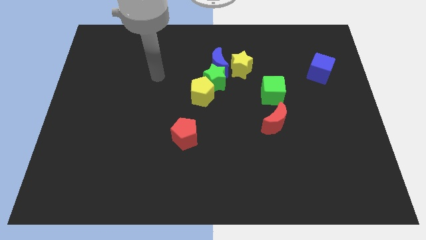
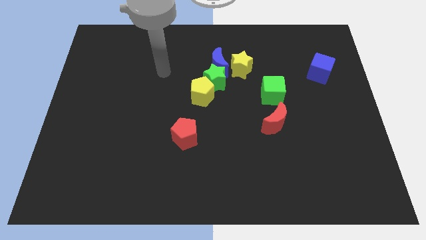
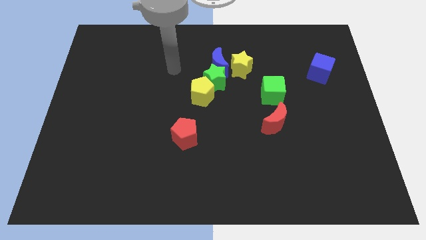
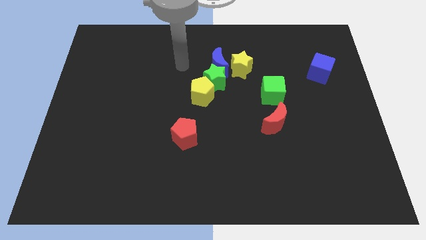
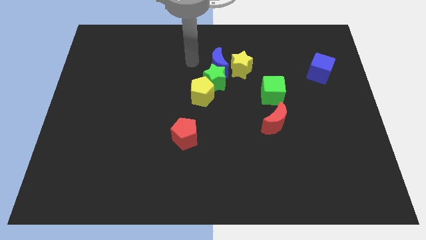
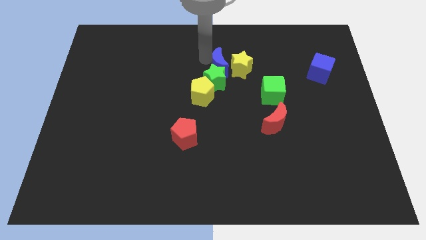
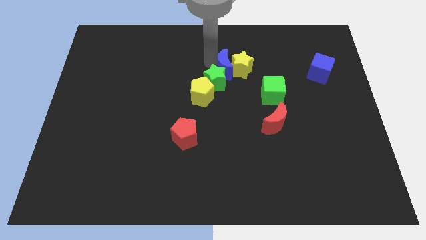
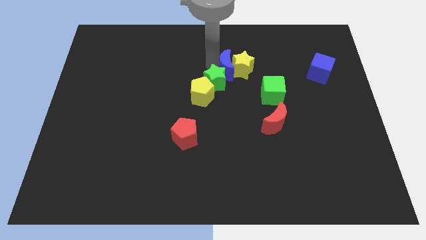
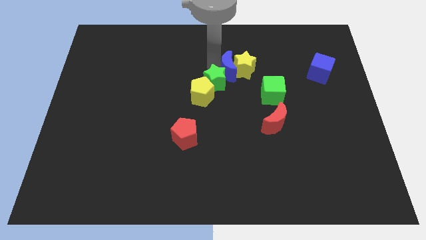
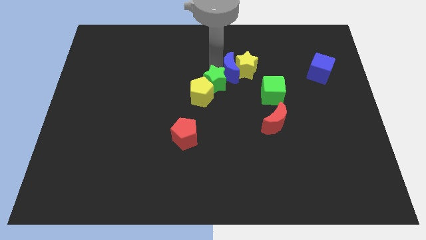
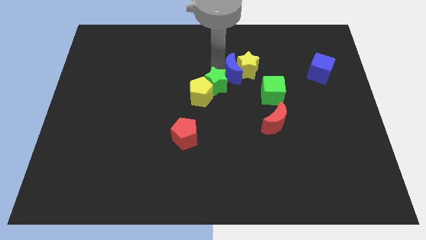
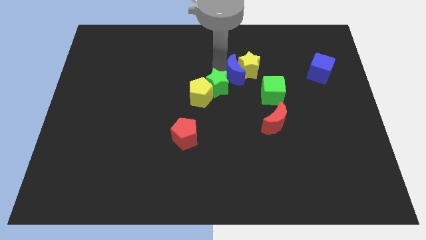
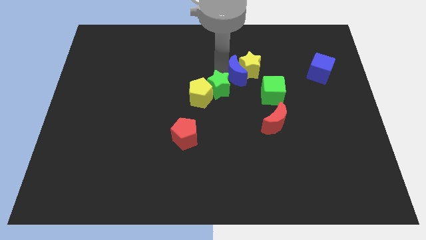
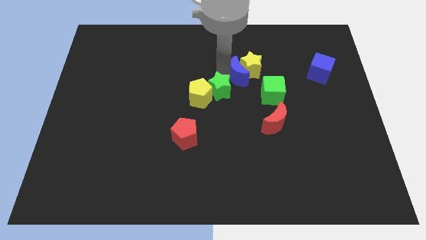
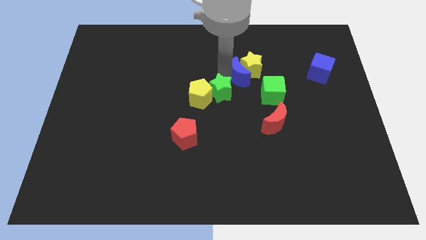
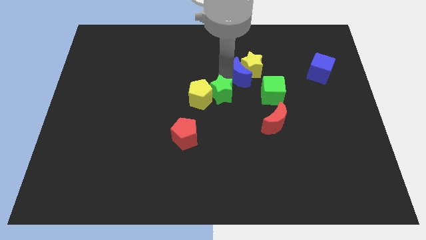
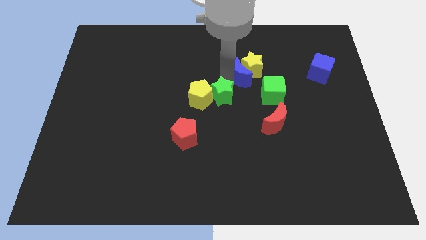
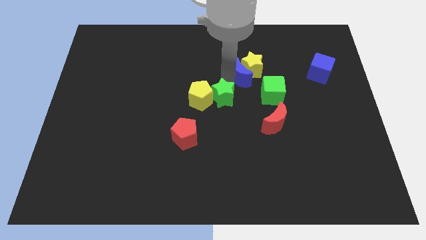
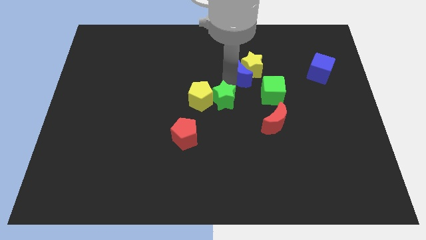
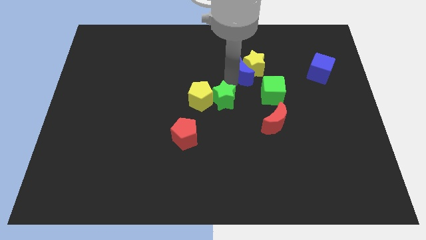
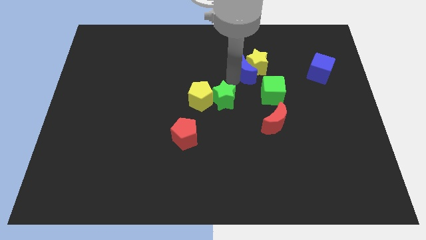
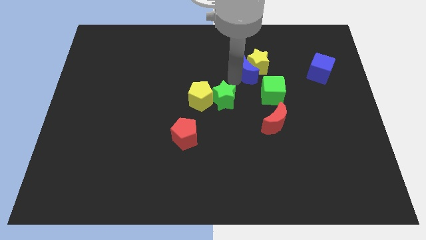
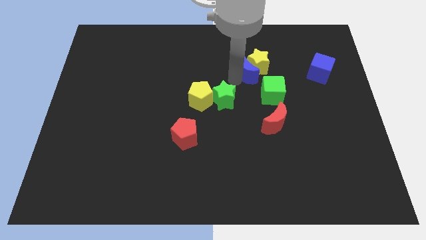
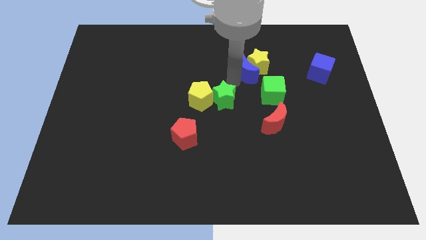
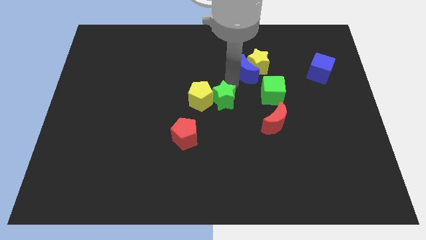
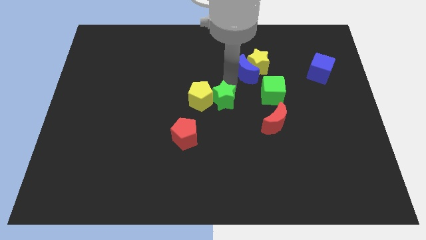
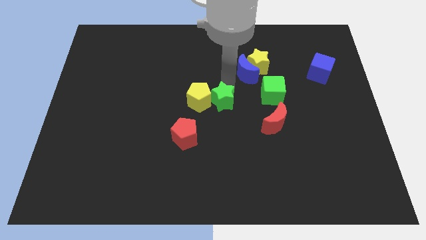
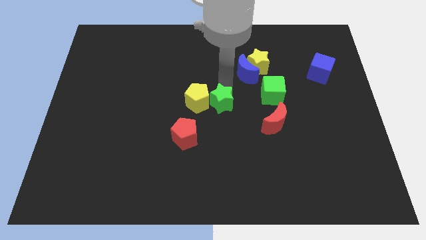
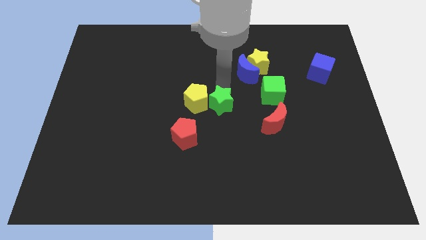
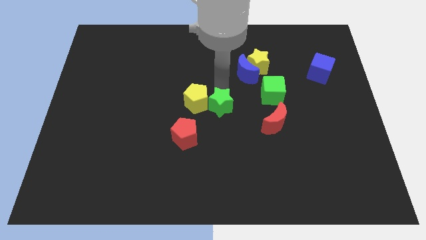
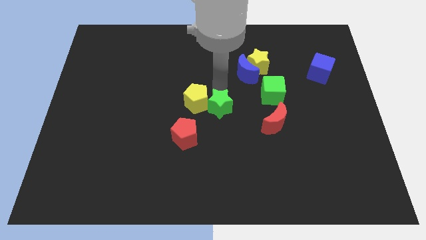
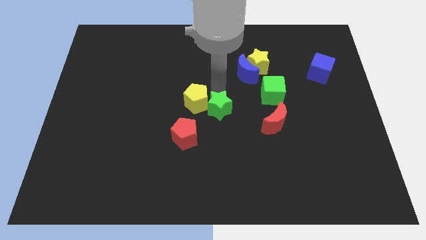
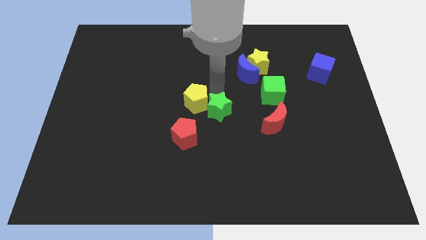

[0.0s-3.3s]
pull the green star apart from the blue moon, yellow pentagon, and yellow star

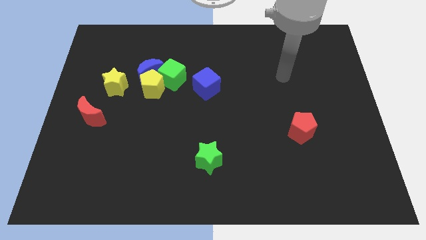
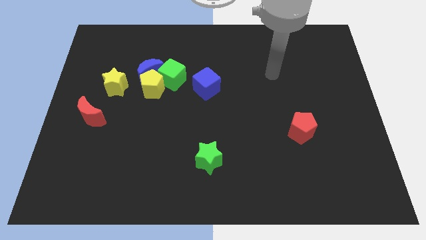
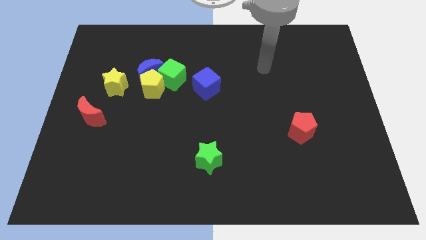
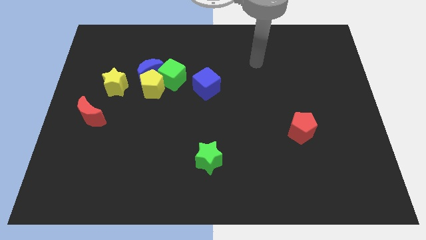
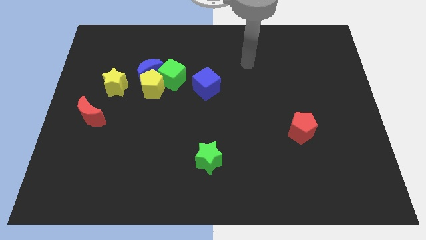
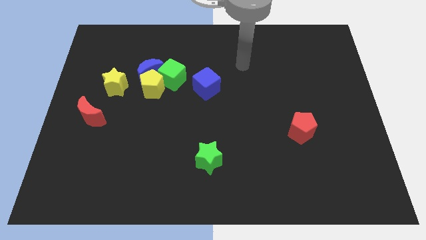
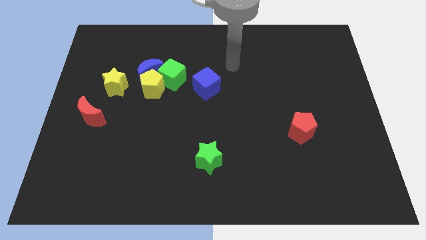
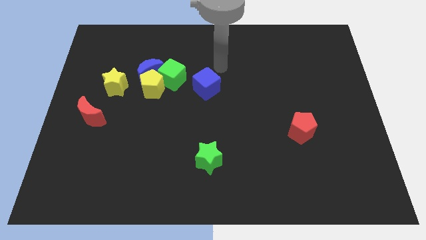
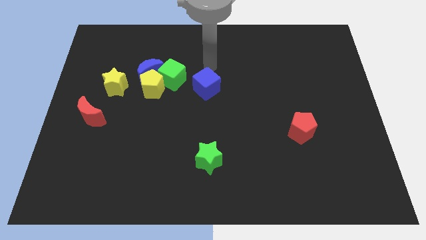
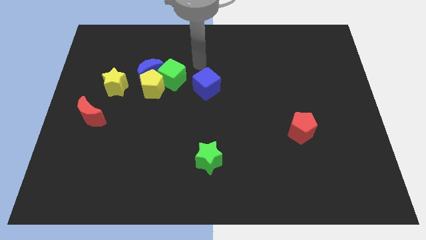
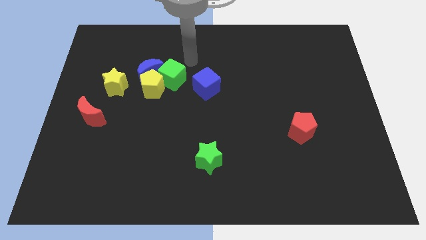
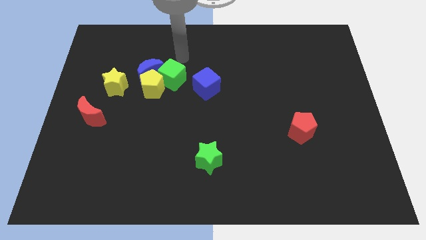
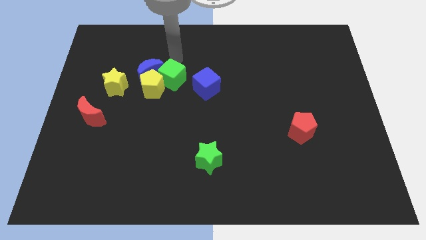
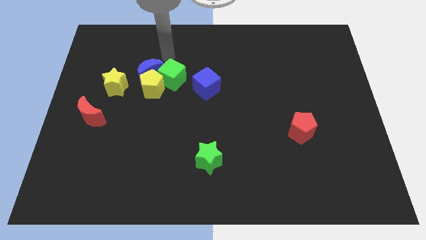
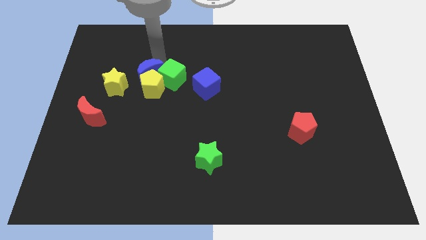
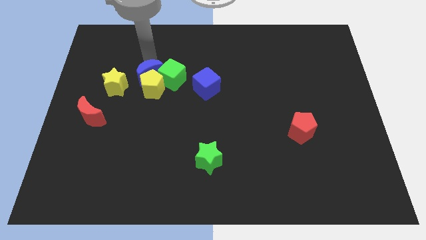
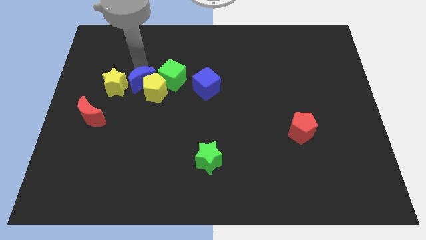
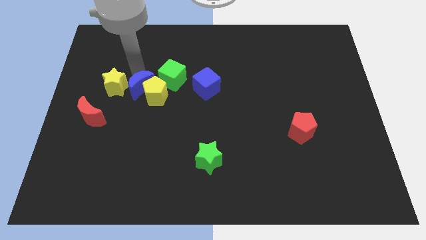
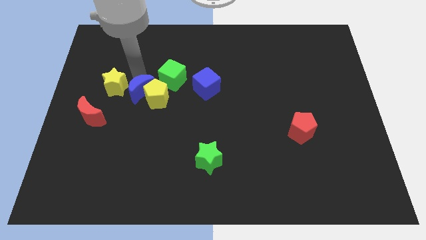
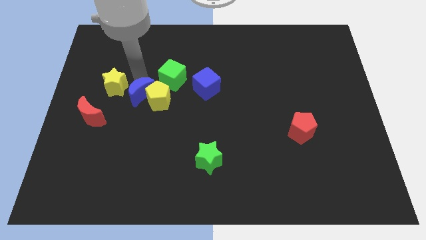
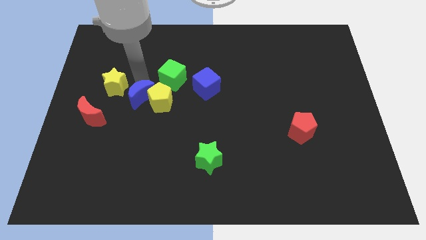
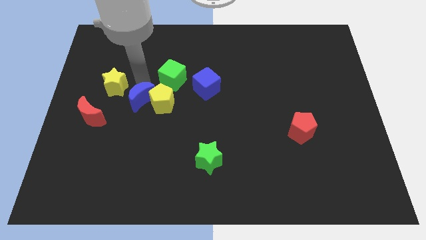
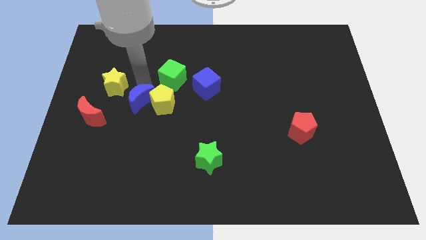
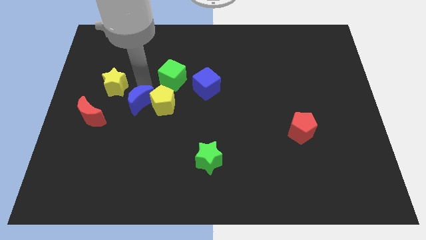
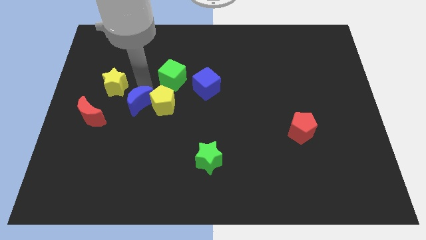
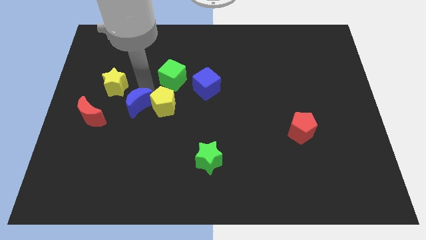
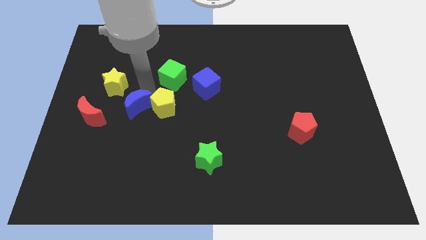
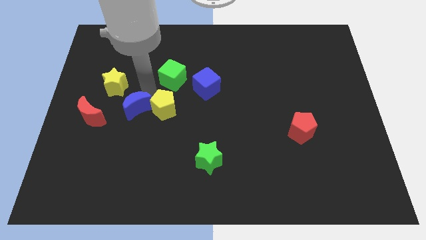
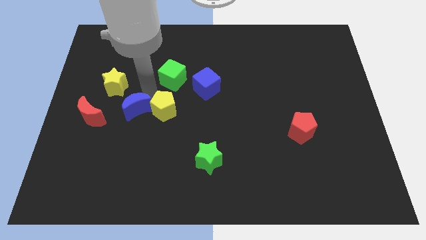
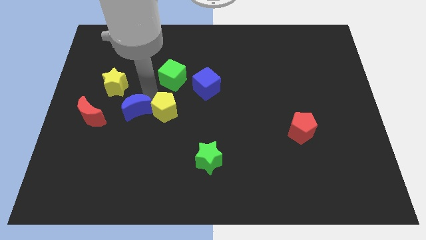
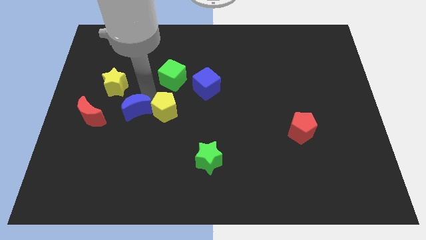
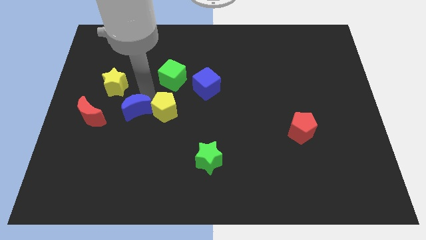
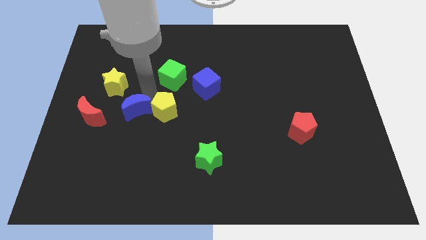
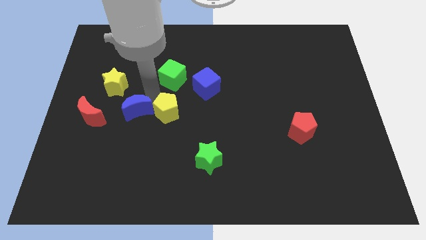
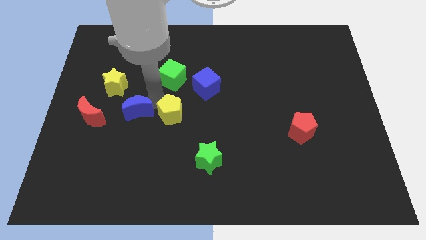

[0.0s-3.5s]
separate the yellow pentagon from the group

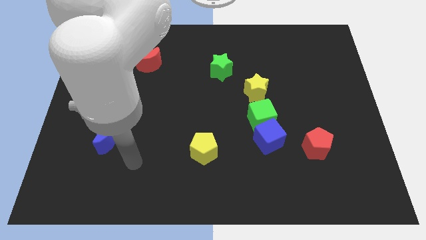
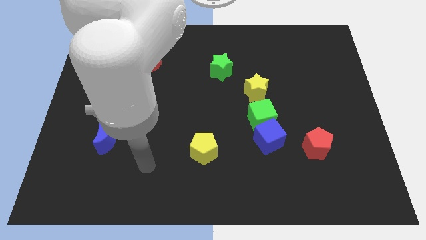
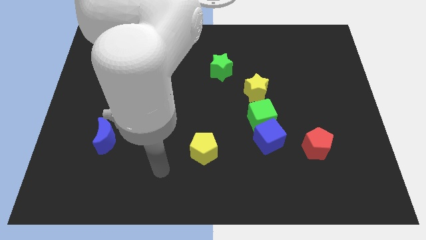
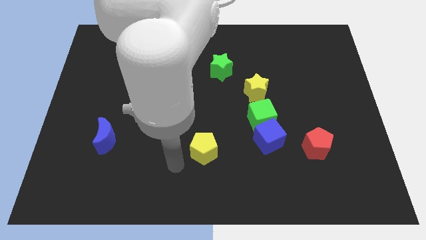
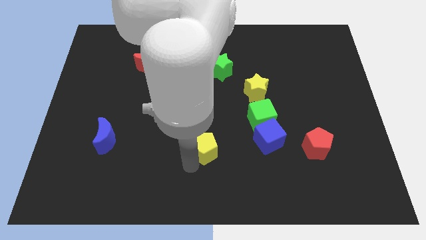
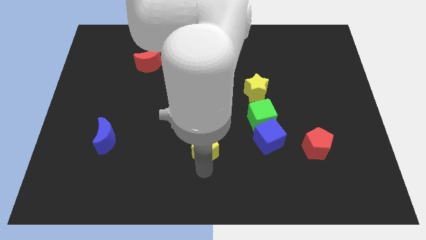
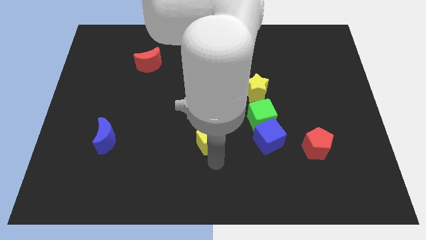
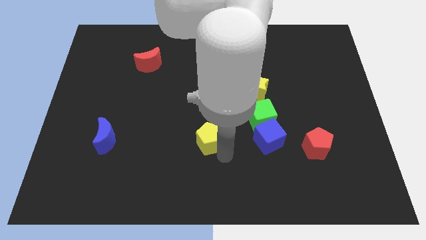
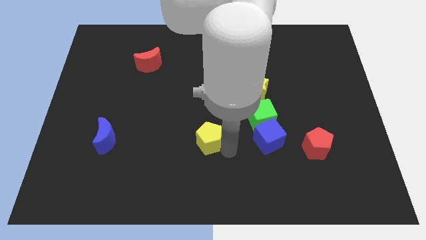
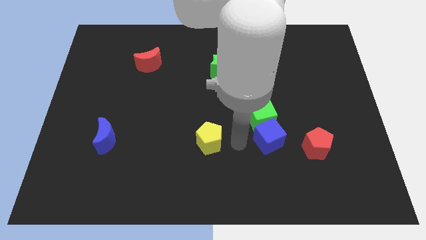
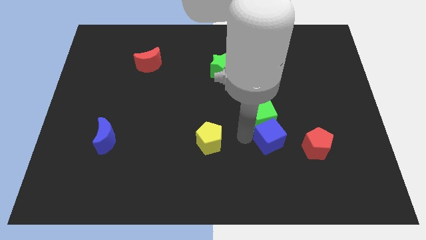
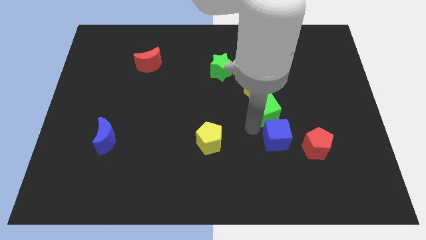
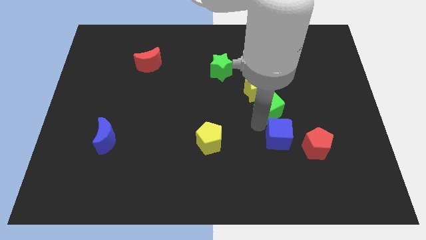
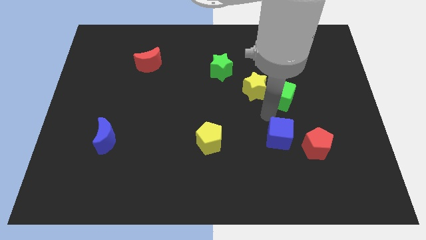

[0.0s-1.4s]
separate the blue cube from the green cube

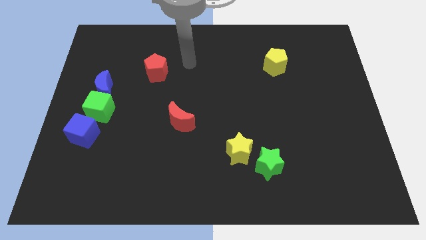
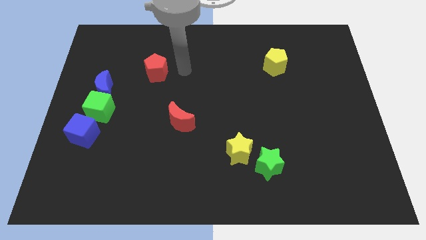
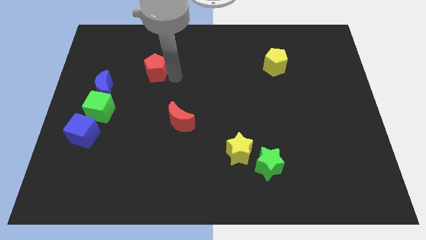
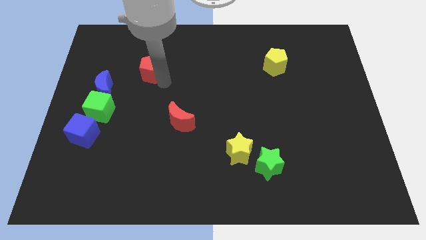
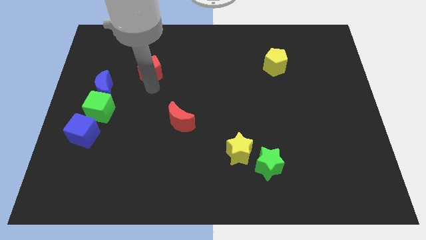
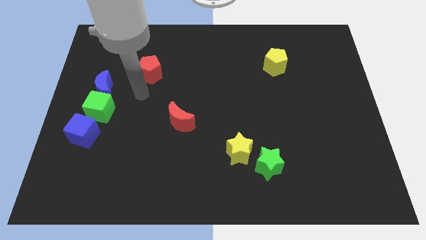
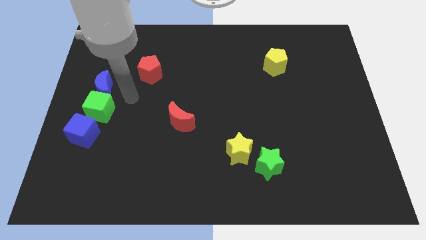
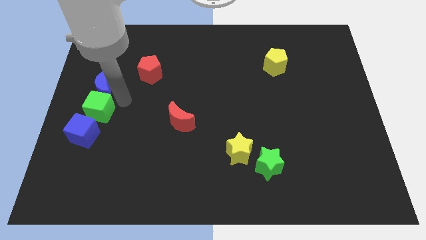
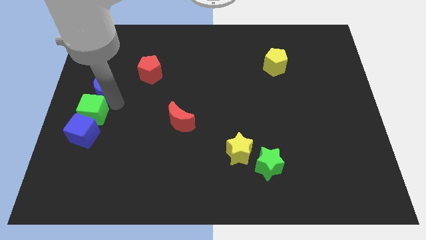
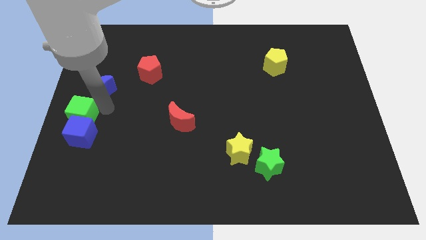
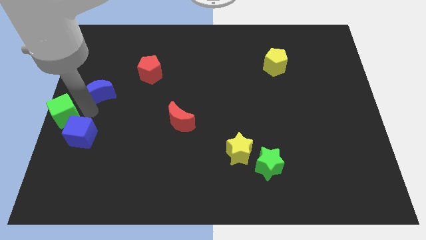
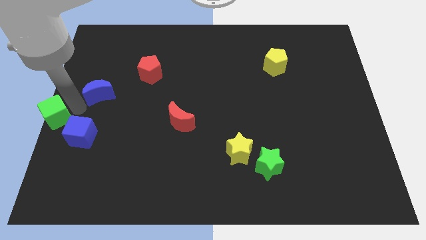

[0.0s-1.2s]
pull the blue moon apart from the green cube
